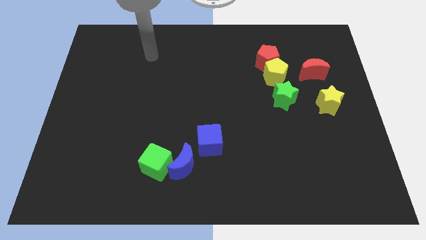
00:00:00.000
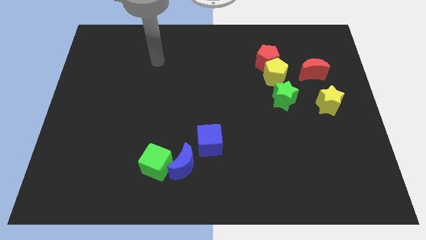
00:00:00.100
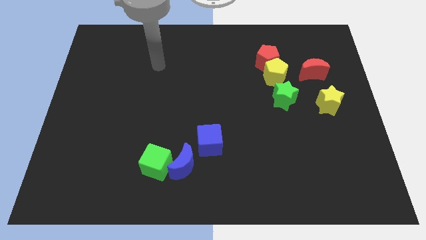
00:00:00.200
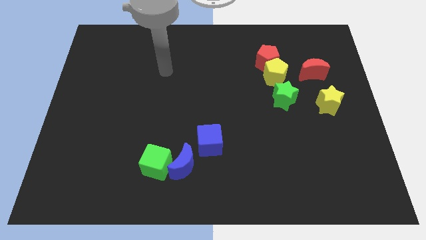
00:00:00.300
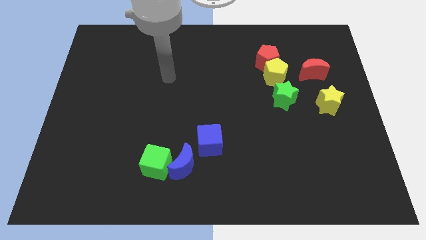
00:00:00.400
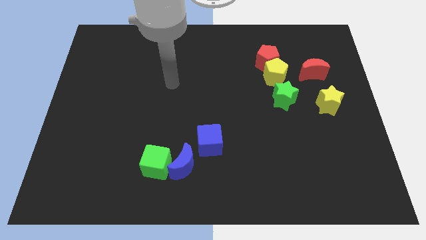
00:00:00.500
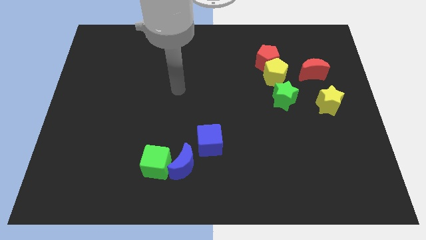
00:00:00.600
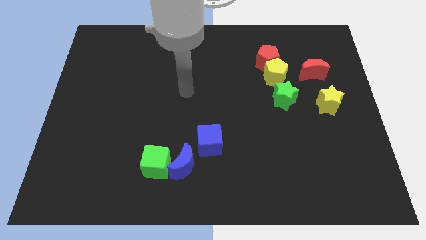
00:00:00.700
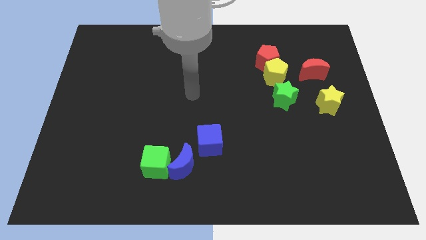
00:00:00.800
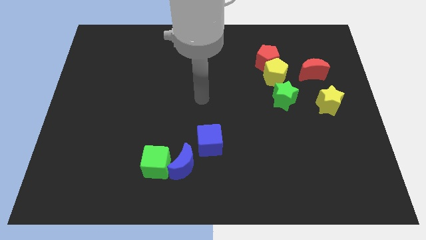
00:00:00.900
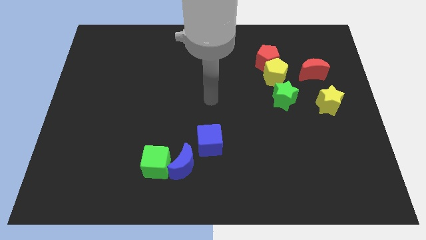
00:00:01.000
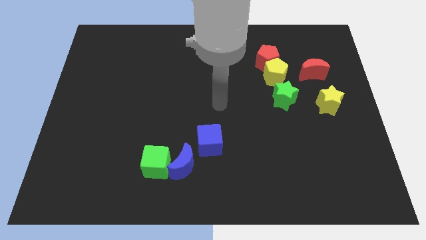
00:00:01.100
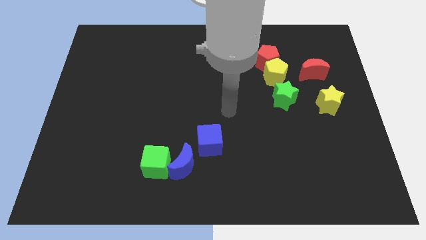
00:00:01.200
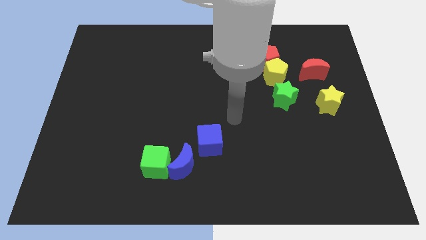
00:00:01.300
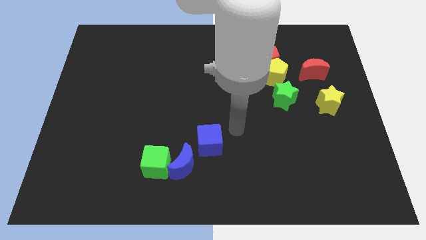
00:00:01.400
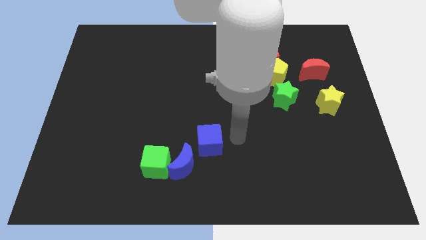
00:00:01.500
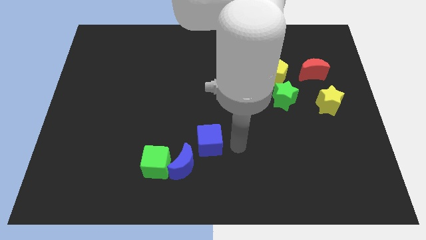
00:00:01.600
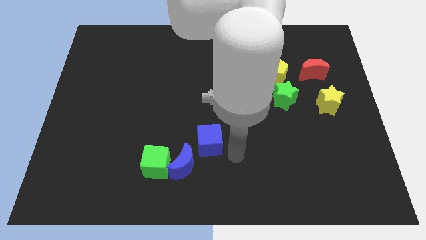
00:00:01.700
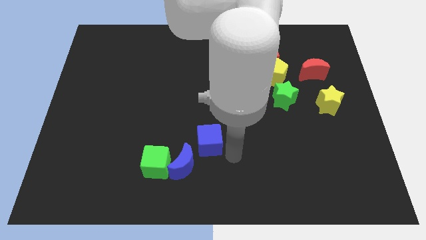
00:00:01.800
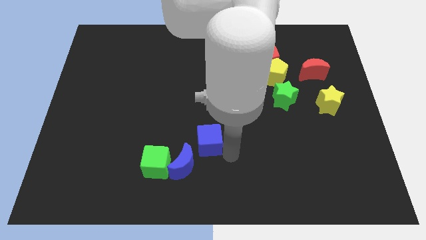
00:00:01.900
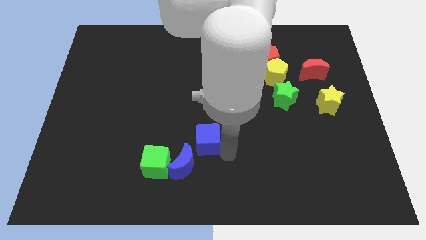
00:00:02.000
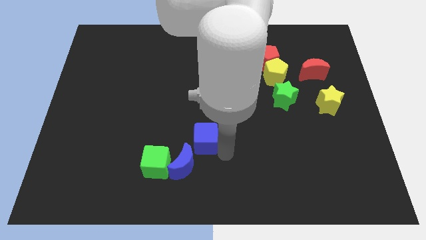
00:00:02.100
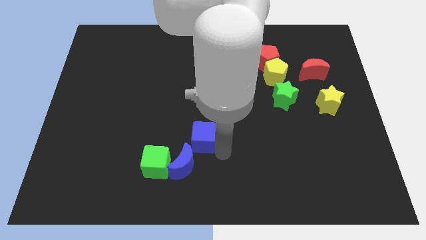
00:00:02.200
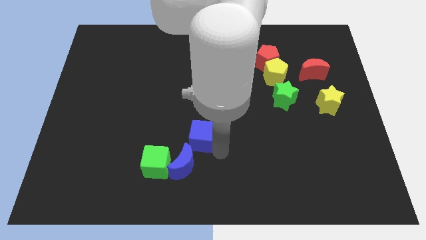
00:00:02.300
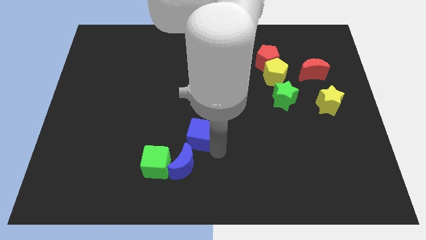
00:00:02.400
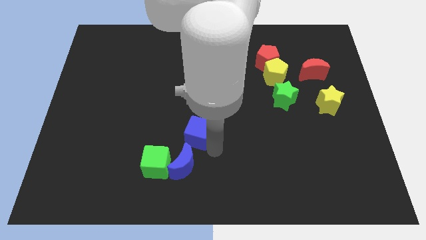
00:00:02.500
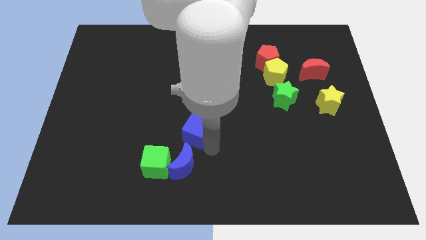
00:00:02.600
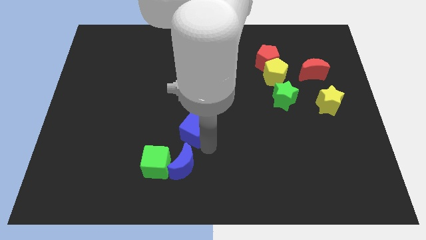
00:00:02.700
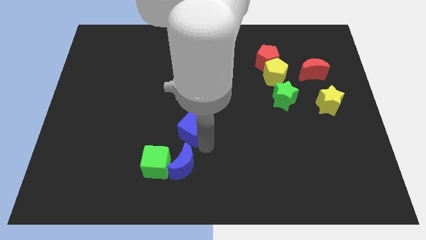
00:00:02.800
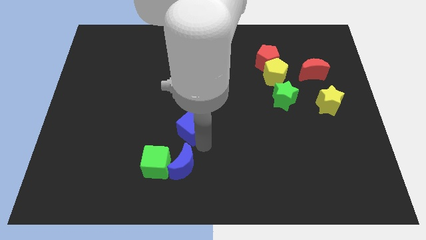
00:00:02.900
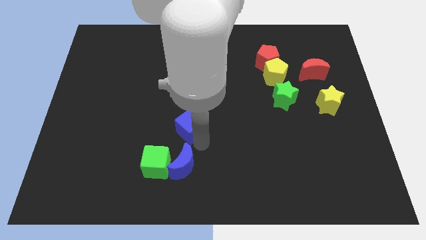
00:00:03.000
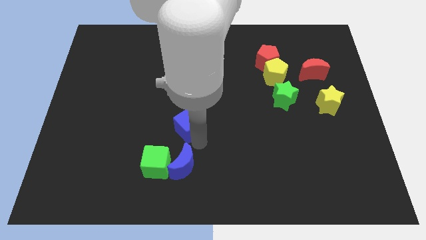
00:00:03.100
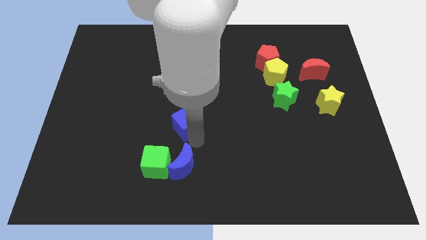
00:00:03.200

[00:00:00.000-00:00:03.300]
push the blue cube a bit up and then left

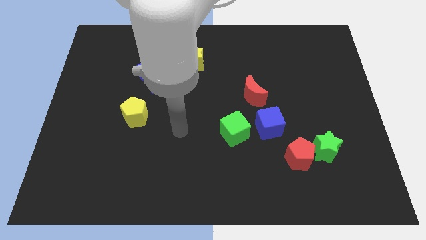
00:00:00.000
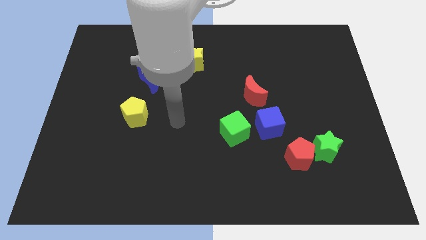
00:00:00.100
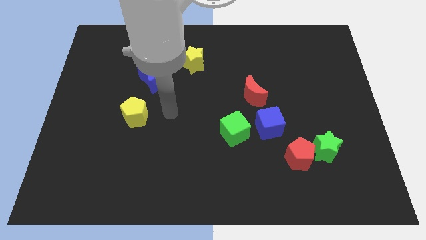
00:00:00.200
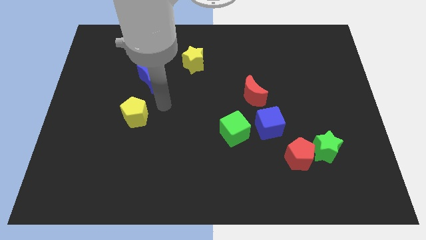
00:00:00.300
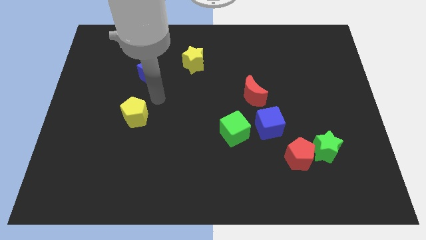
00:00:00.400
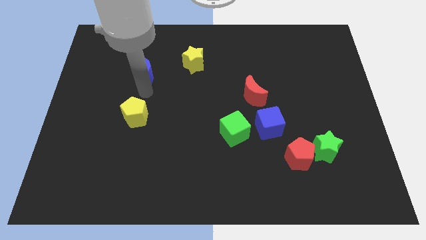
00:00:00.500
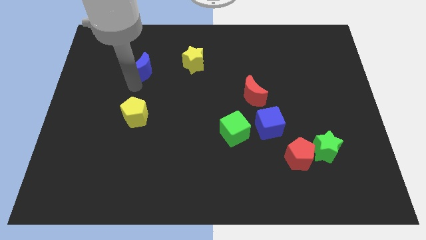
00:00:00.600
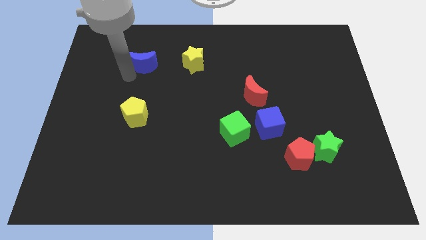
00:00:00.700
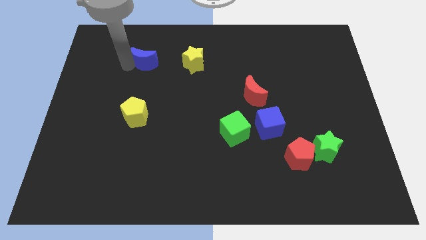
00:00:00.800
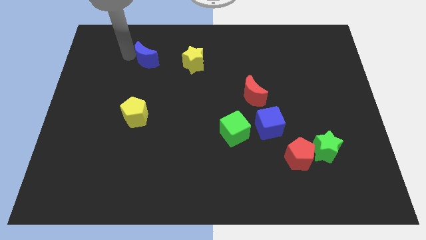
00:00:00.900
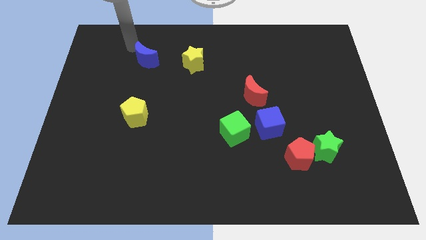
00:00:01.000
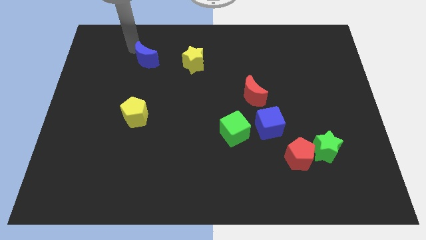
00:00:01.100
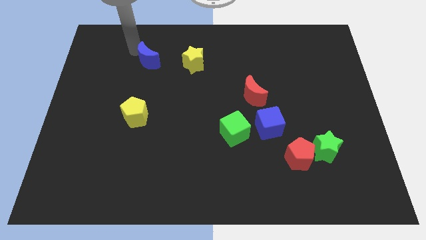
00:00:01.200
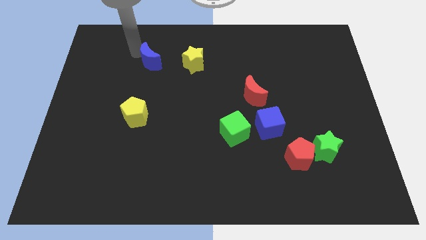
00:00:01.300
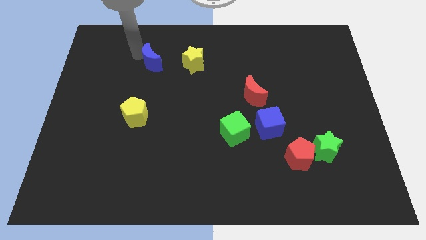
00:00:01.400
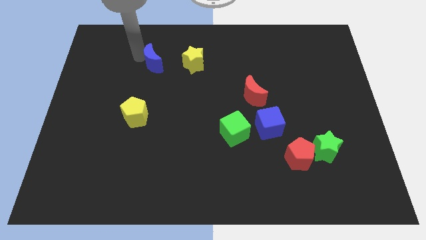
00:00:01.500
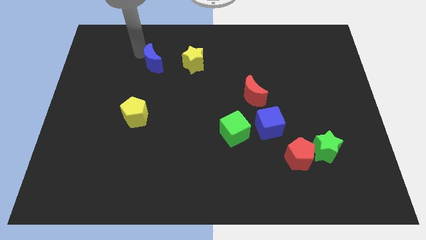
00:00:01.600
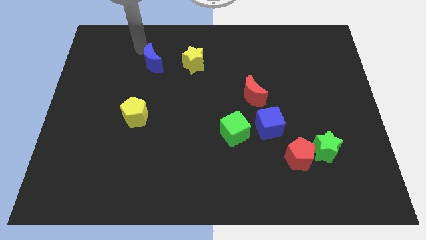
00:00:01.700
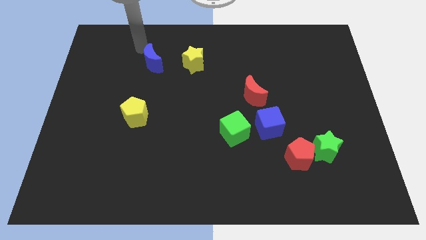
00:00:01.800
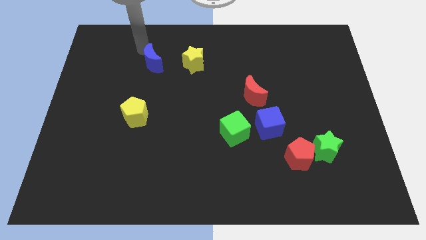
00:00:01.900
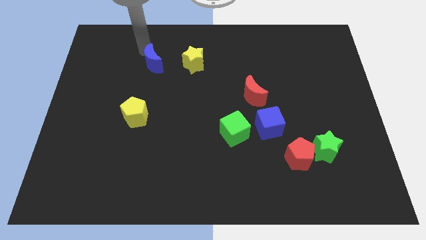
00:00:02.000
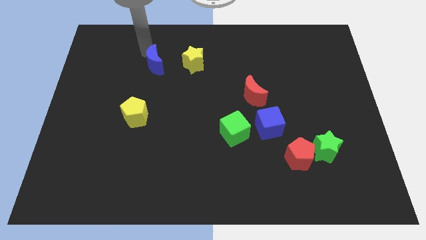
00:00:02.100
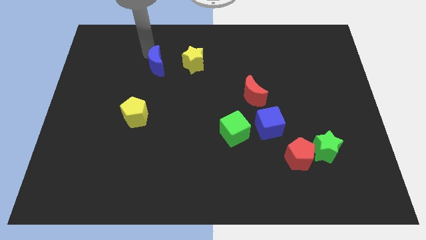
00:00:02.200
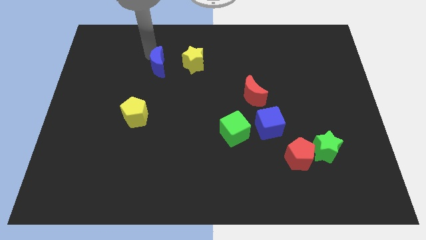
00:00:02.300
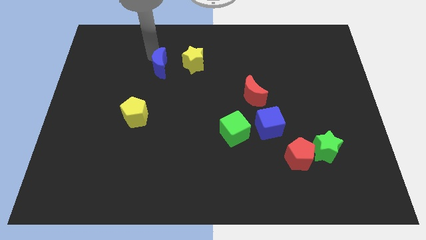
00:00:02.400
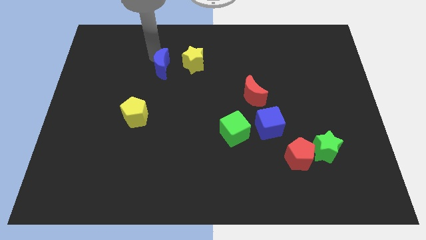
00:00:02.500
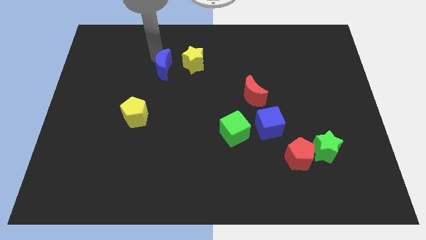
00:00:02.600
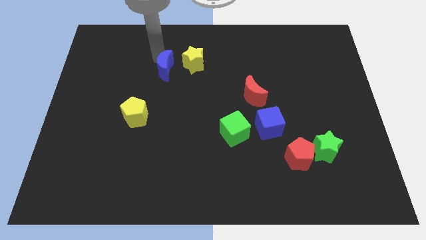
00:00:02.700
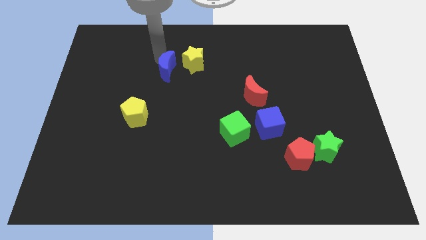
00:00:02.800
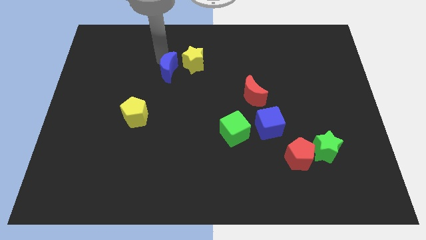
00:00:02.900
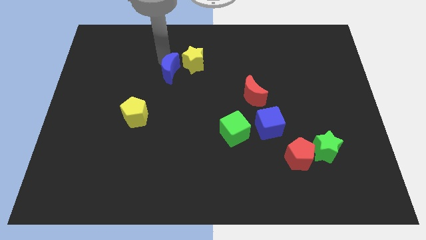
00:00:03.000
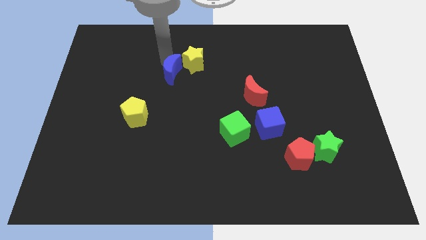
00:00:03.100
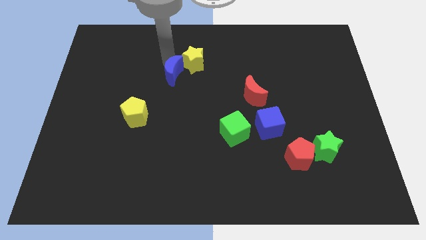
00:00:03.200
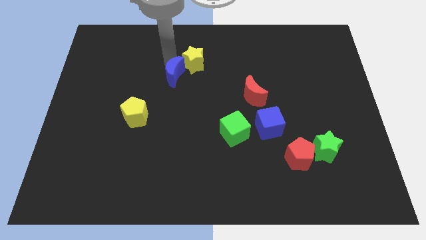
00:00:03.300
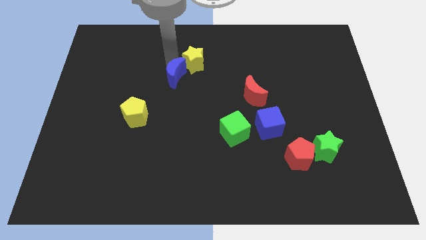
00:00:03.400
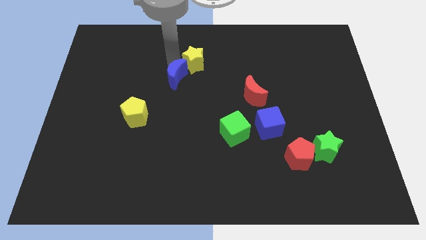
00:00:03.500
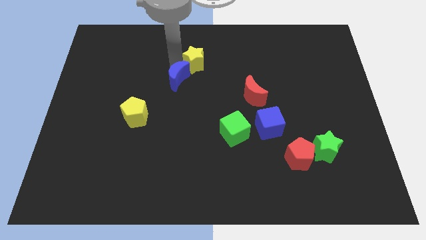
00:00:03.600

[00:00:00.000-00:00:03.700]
slightly move the blue moon right

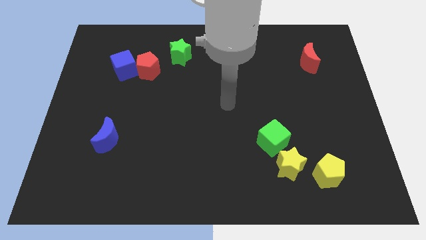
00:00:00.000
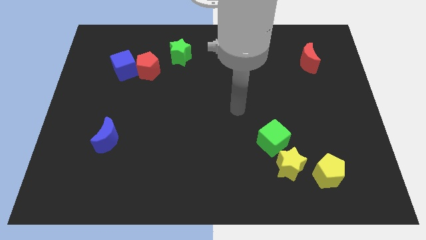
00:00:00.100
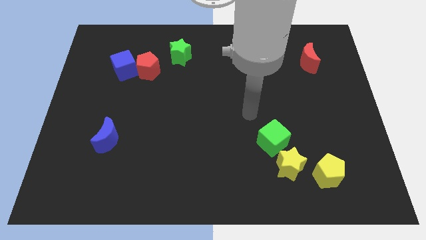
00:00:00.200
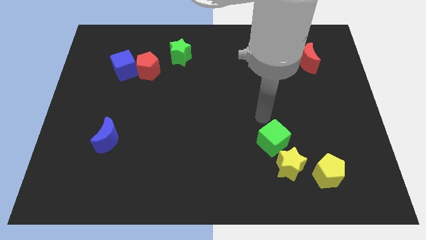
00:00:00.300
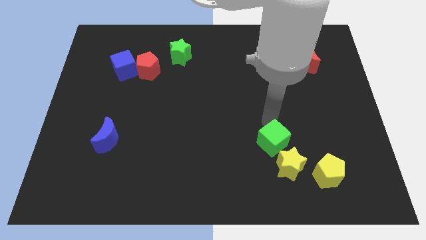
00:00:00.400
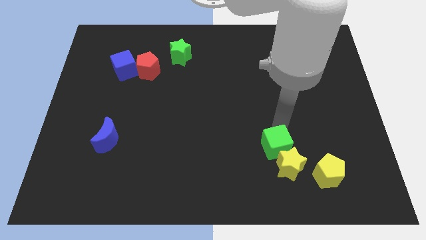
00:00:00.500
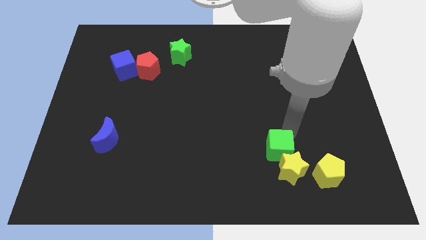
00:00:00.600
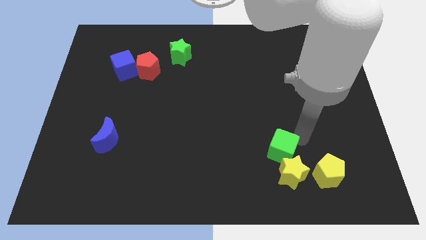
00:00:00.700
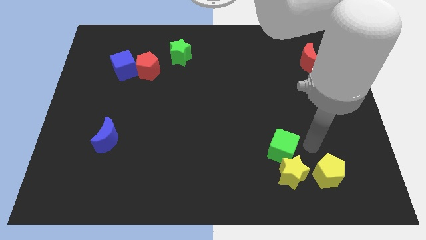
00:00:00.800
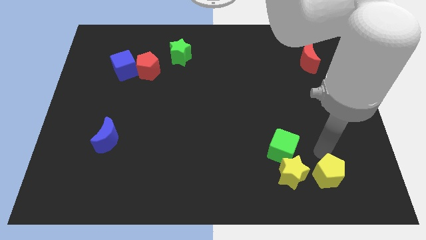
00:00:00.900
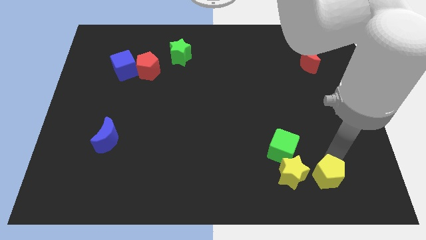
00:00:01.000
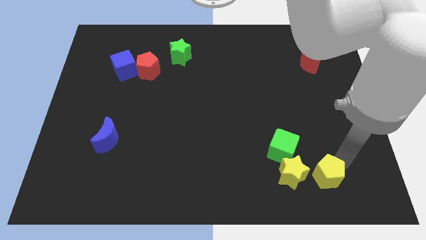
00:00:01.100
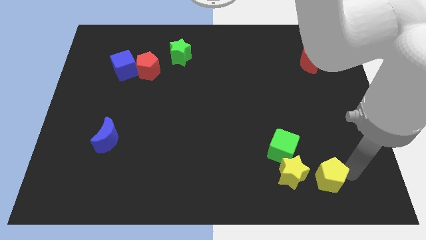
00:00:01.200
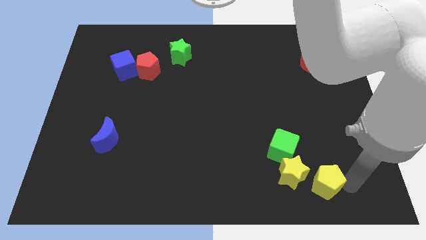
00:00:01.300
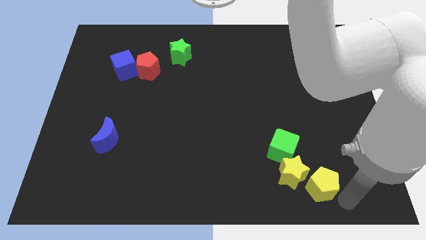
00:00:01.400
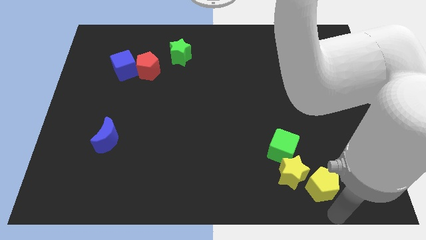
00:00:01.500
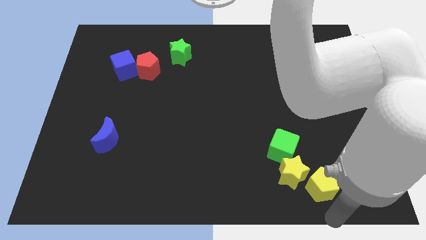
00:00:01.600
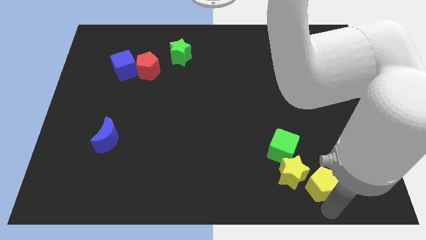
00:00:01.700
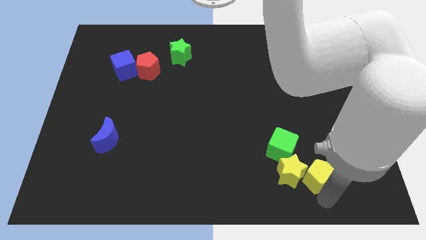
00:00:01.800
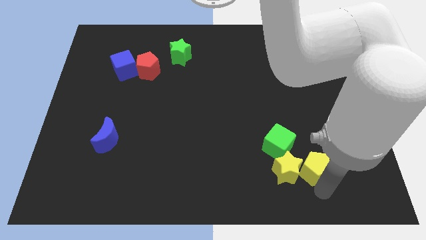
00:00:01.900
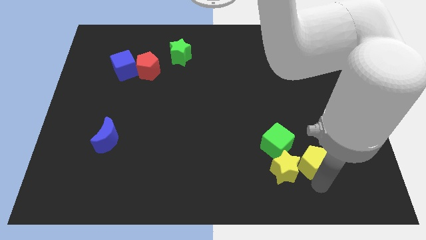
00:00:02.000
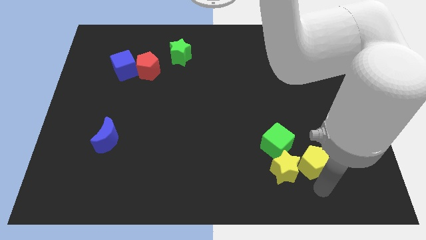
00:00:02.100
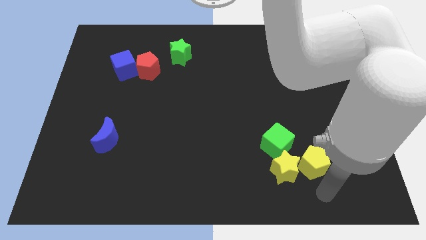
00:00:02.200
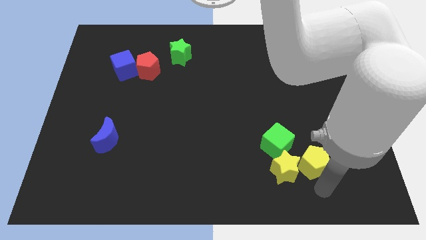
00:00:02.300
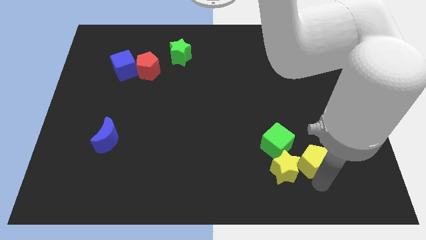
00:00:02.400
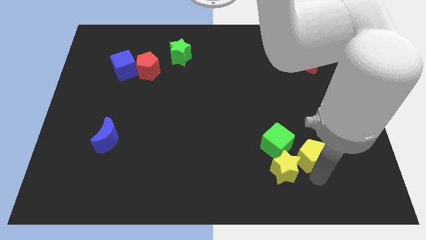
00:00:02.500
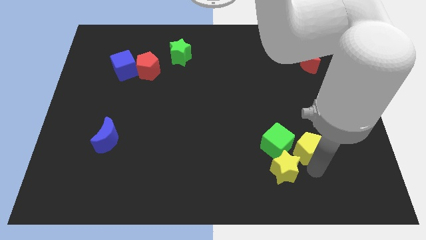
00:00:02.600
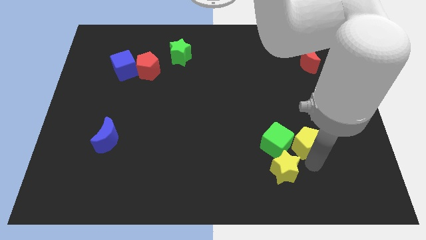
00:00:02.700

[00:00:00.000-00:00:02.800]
slide the yellow pentagon a little bit diagonally upwards and left
